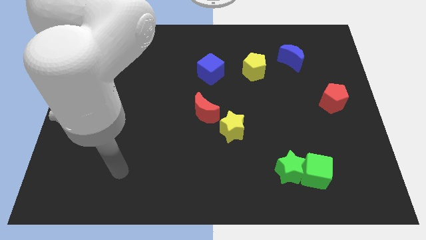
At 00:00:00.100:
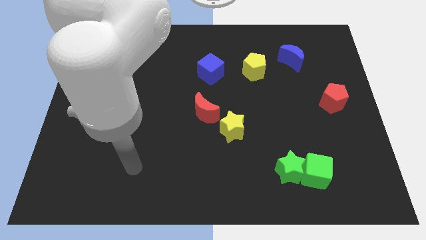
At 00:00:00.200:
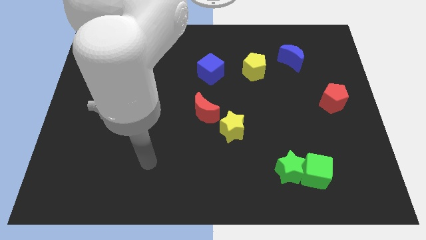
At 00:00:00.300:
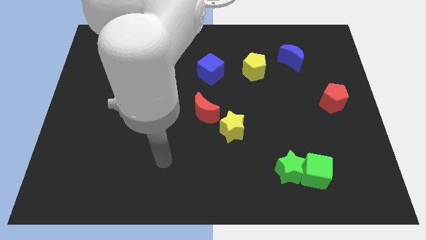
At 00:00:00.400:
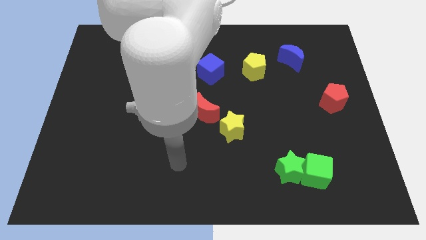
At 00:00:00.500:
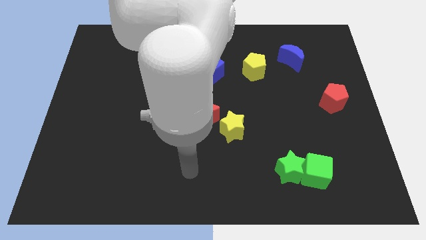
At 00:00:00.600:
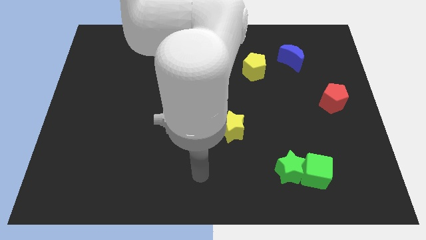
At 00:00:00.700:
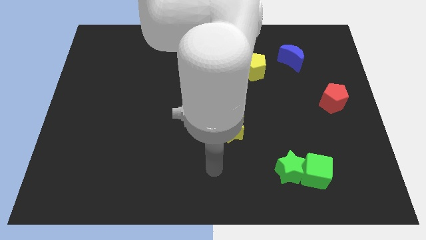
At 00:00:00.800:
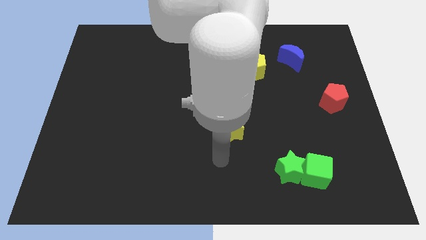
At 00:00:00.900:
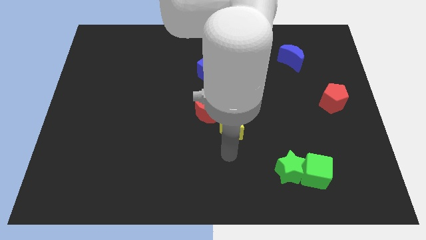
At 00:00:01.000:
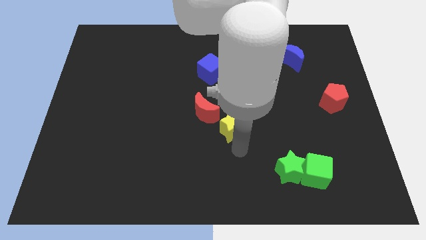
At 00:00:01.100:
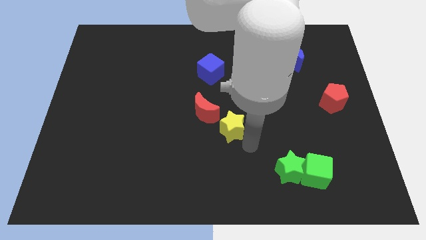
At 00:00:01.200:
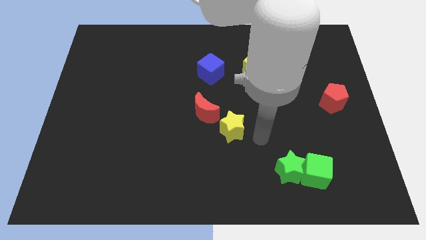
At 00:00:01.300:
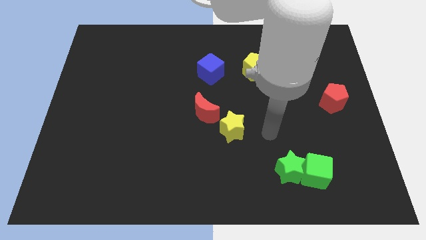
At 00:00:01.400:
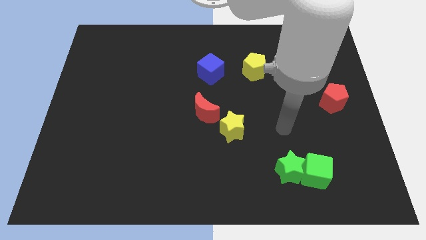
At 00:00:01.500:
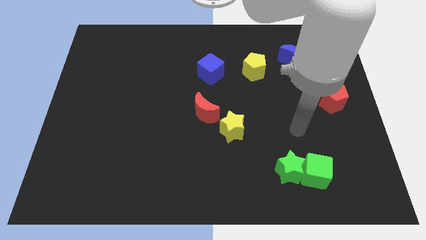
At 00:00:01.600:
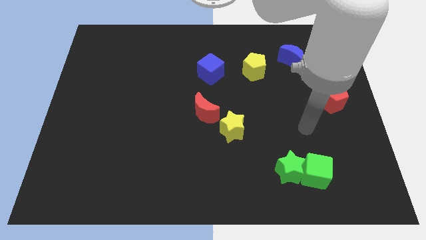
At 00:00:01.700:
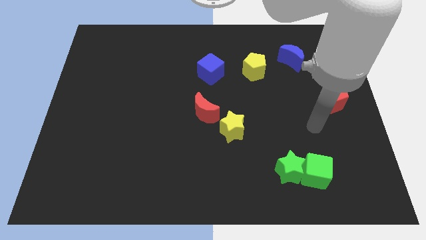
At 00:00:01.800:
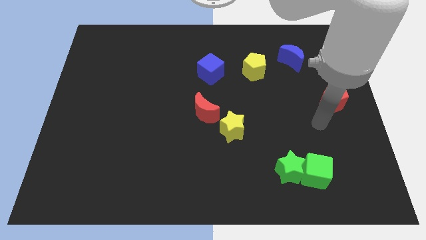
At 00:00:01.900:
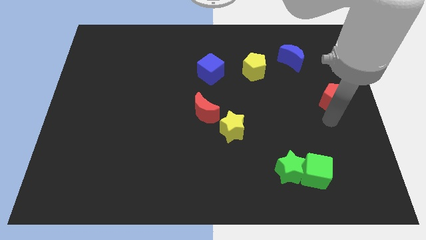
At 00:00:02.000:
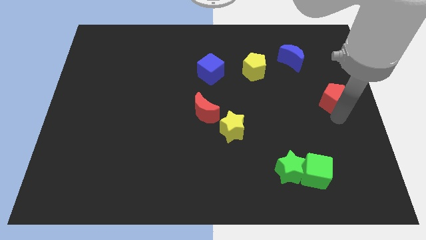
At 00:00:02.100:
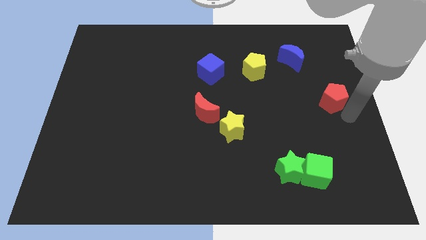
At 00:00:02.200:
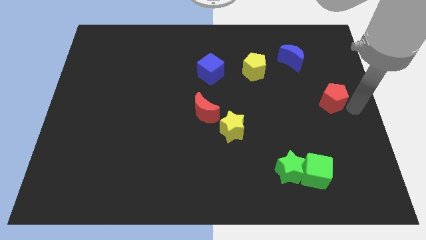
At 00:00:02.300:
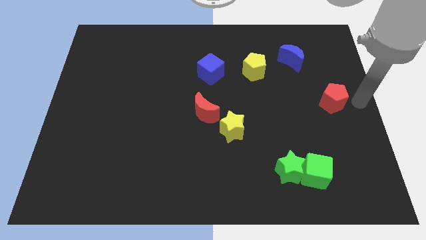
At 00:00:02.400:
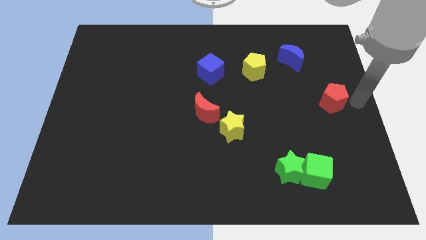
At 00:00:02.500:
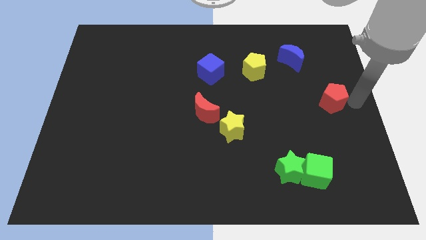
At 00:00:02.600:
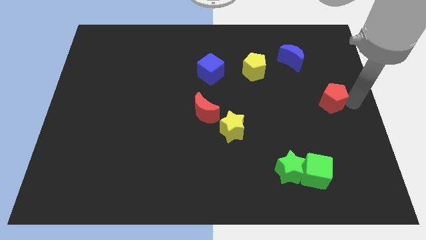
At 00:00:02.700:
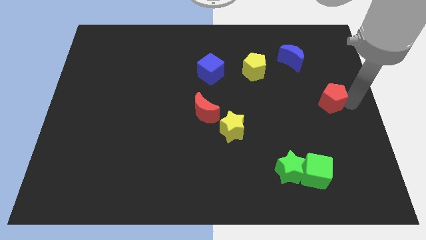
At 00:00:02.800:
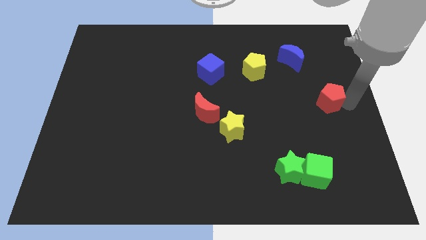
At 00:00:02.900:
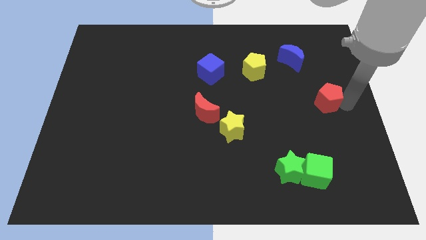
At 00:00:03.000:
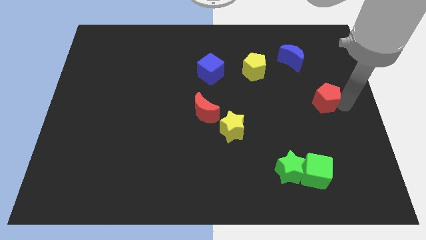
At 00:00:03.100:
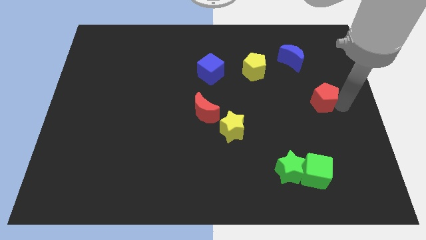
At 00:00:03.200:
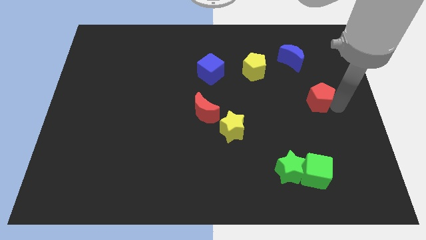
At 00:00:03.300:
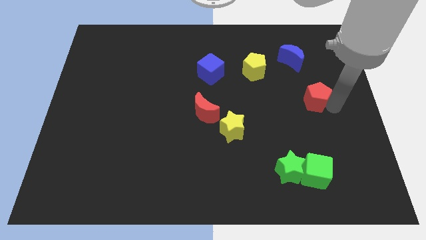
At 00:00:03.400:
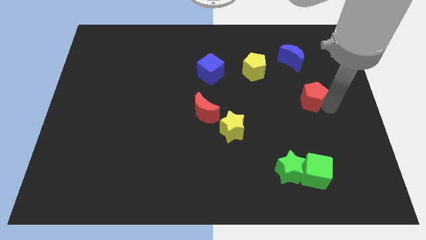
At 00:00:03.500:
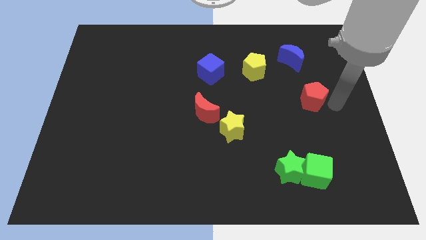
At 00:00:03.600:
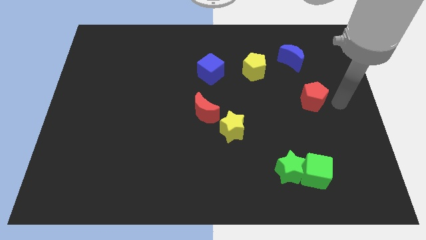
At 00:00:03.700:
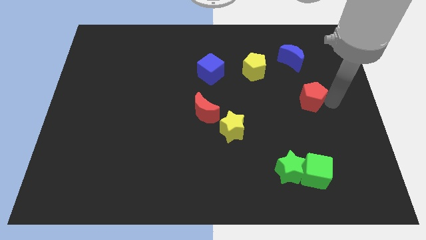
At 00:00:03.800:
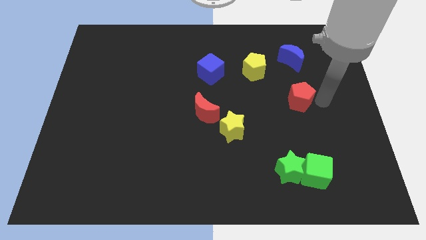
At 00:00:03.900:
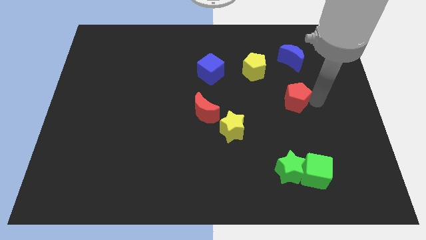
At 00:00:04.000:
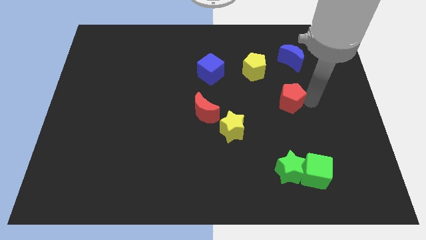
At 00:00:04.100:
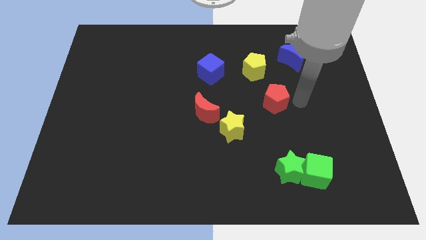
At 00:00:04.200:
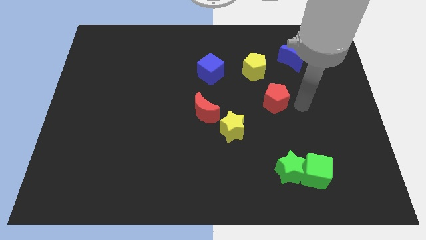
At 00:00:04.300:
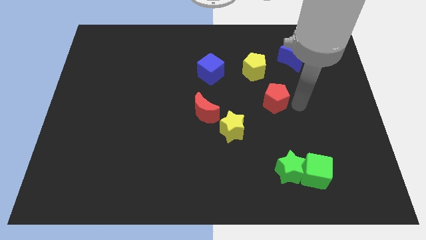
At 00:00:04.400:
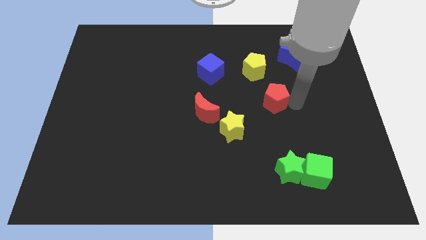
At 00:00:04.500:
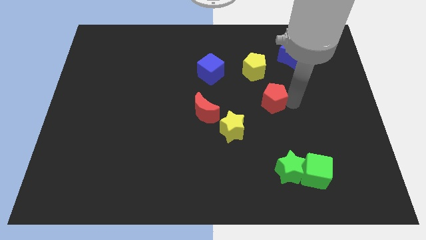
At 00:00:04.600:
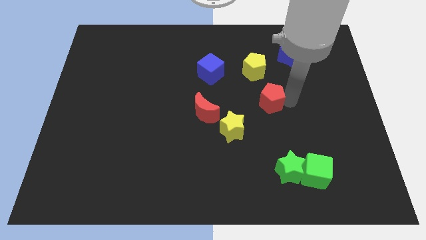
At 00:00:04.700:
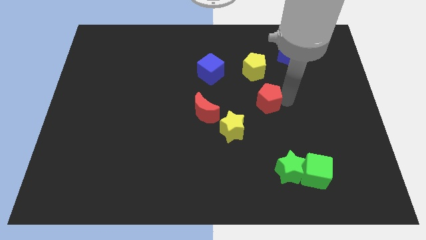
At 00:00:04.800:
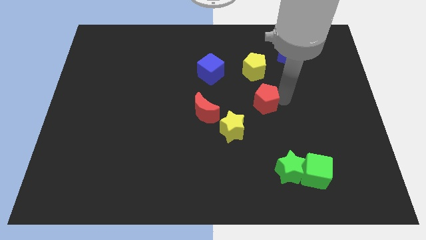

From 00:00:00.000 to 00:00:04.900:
slide the red pentagon to the center of the board

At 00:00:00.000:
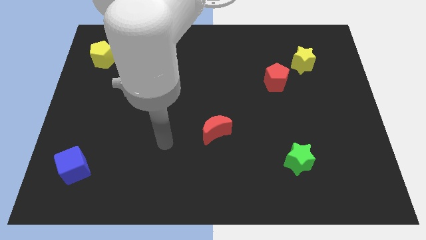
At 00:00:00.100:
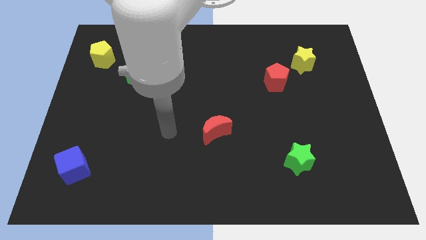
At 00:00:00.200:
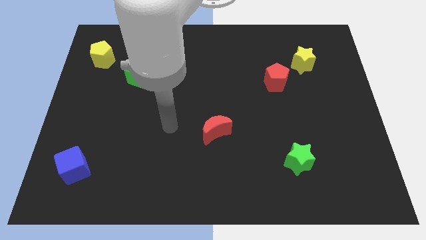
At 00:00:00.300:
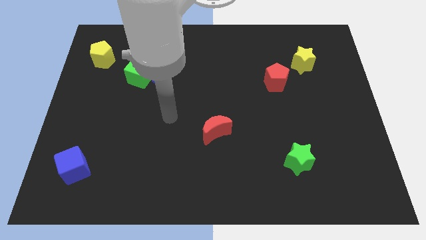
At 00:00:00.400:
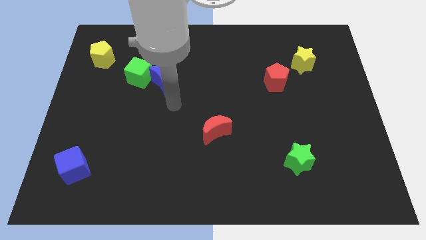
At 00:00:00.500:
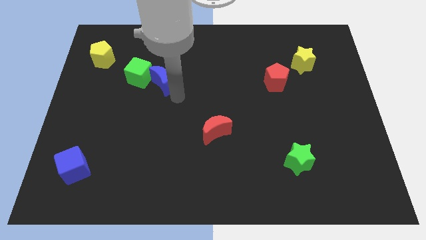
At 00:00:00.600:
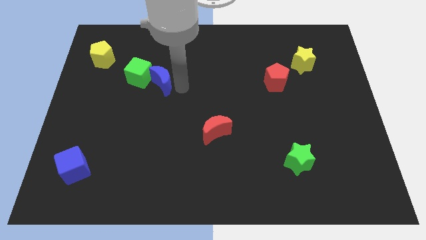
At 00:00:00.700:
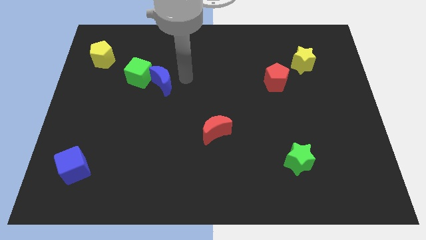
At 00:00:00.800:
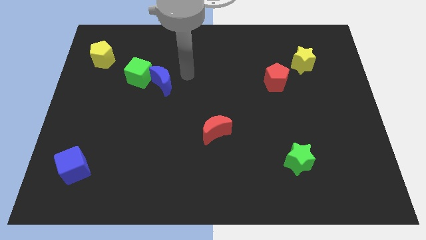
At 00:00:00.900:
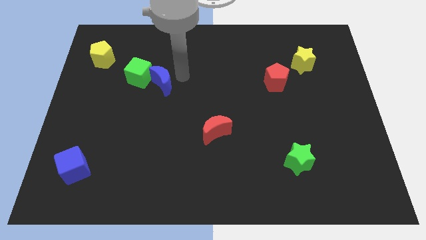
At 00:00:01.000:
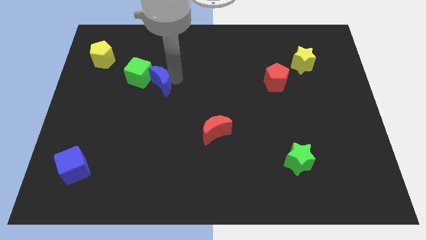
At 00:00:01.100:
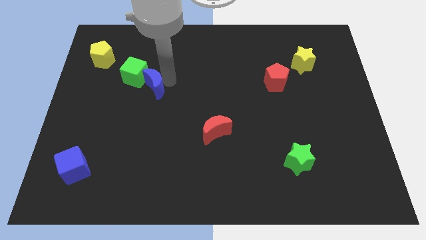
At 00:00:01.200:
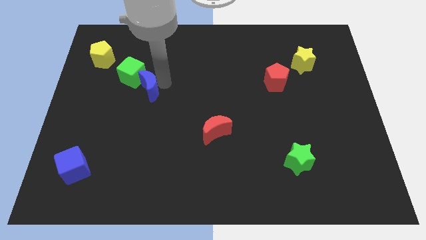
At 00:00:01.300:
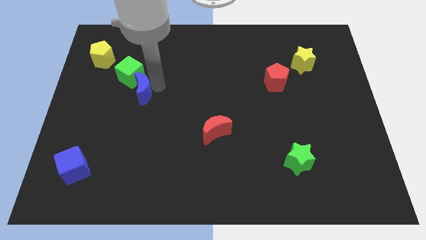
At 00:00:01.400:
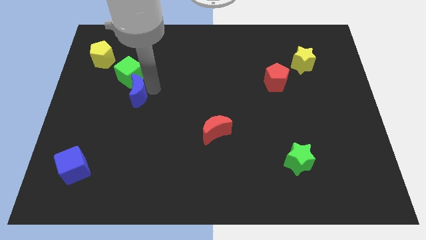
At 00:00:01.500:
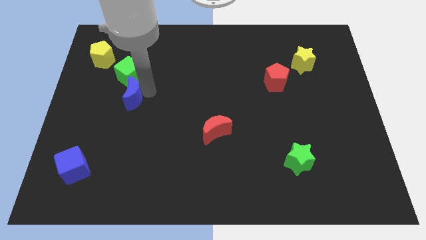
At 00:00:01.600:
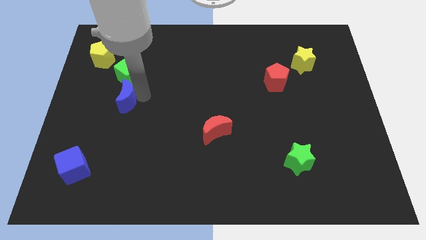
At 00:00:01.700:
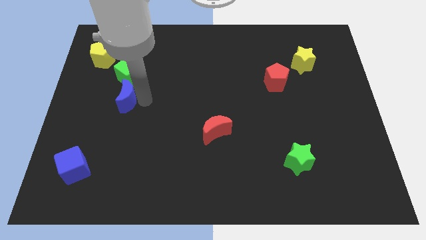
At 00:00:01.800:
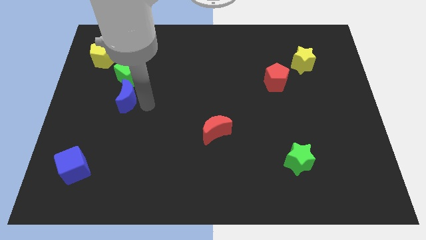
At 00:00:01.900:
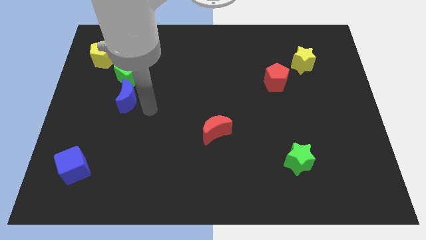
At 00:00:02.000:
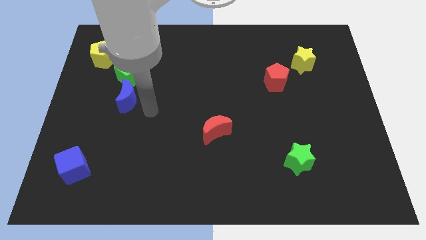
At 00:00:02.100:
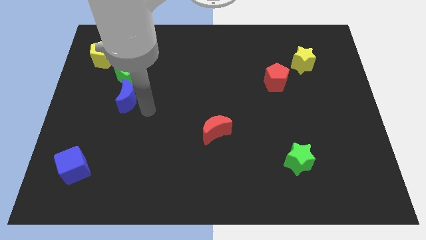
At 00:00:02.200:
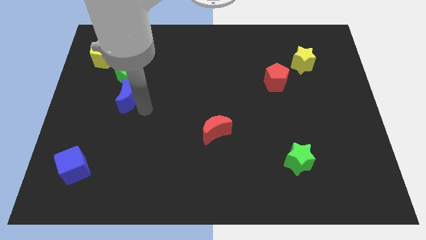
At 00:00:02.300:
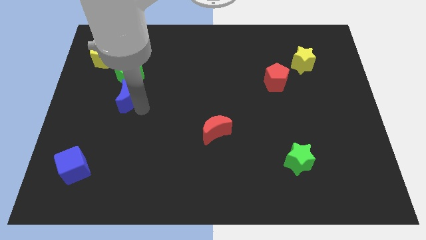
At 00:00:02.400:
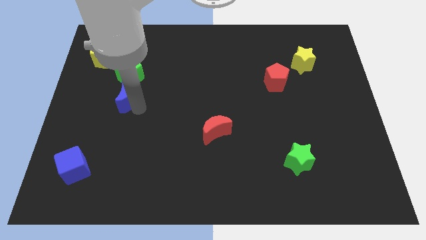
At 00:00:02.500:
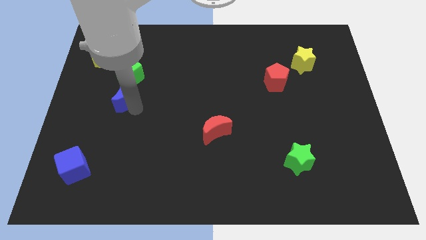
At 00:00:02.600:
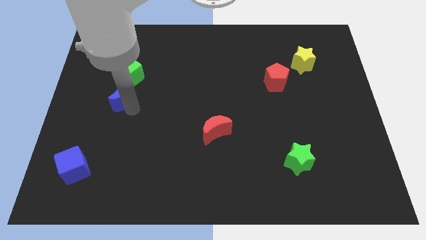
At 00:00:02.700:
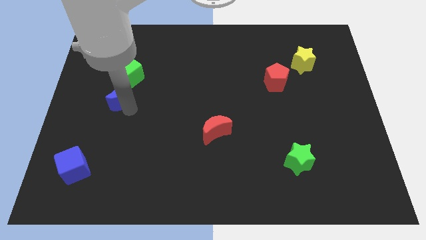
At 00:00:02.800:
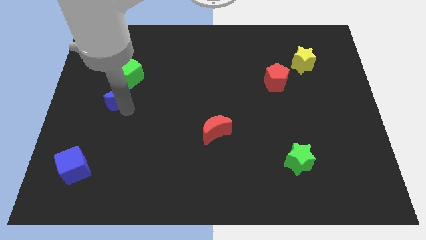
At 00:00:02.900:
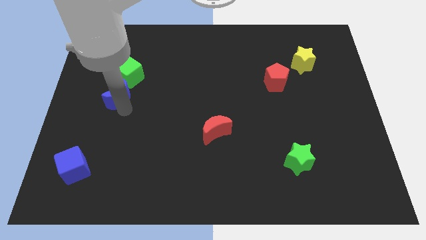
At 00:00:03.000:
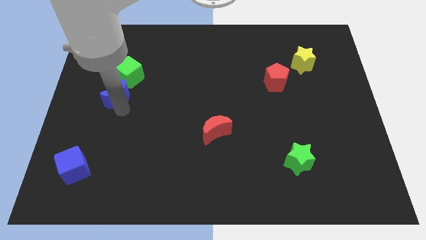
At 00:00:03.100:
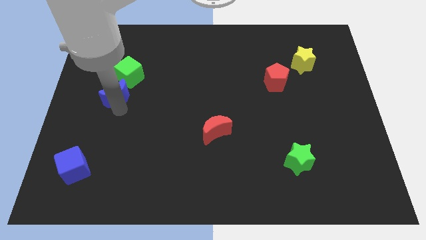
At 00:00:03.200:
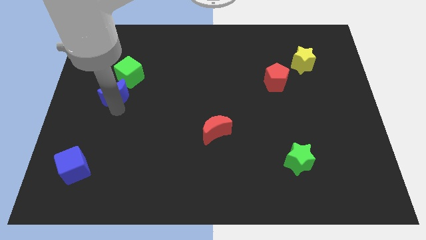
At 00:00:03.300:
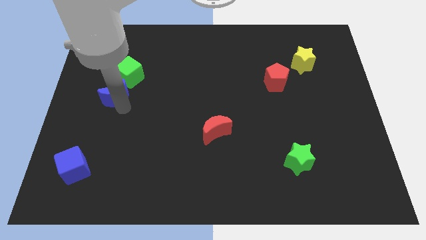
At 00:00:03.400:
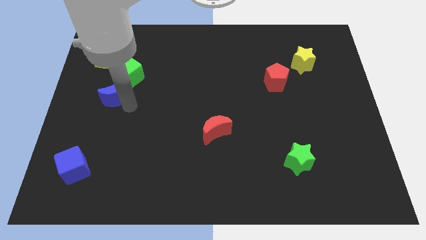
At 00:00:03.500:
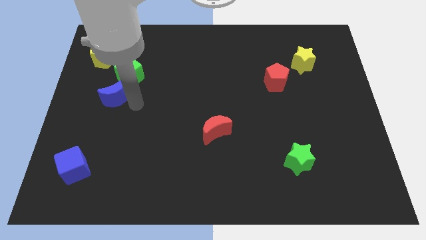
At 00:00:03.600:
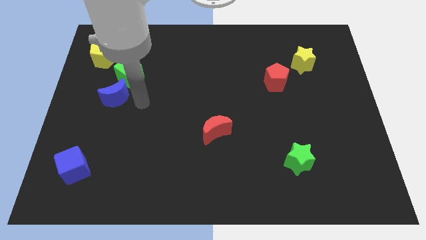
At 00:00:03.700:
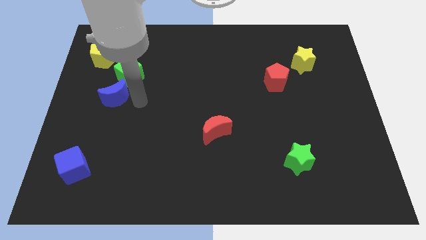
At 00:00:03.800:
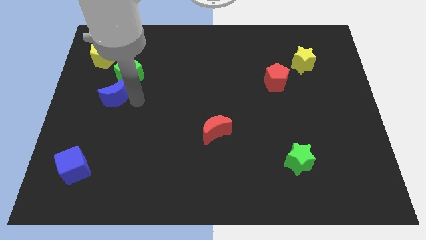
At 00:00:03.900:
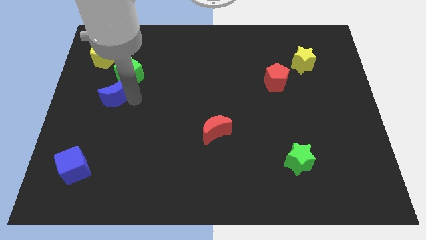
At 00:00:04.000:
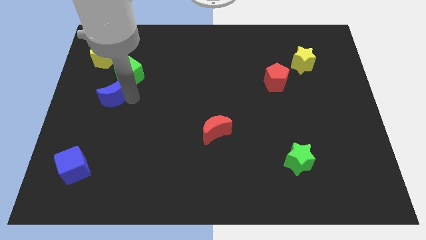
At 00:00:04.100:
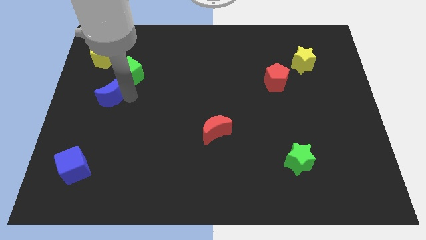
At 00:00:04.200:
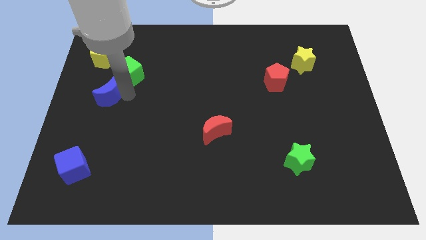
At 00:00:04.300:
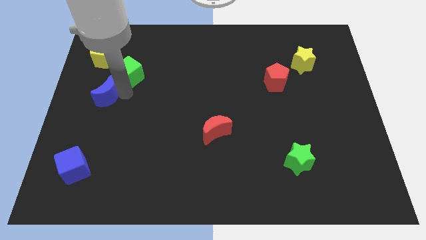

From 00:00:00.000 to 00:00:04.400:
move the blue moon to the left side
